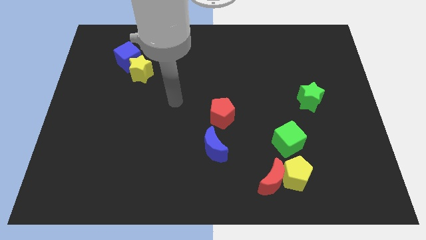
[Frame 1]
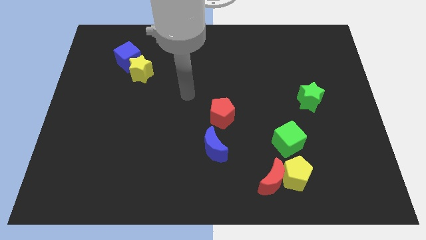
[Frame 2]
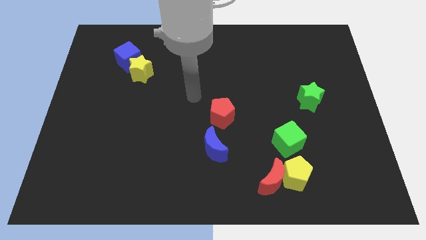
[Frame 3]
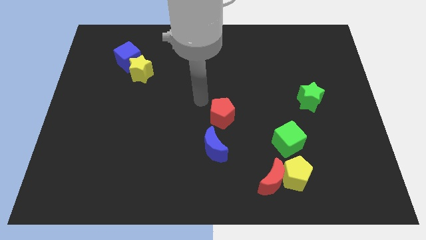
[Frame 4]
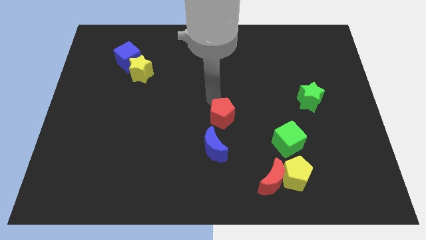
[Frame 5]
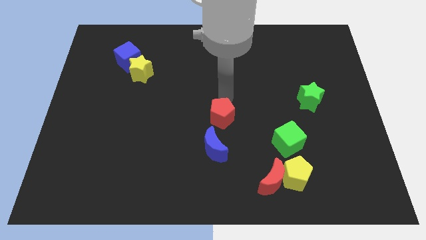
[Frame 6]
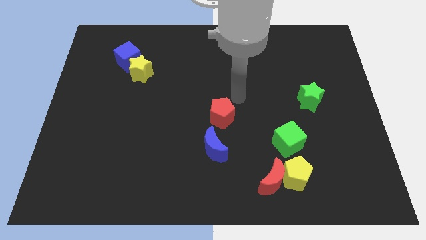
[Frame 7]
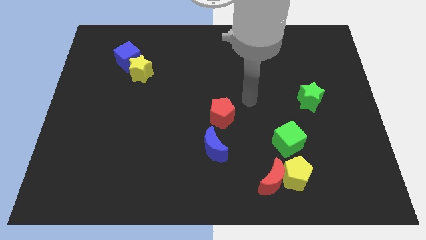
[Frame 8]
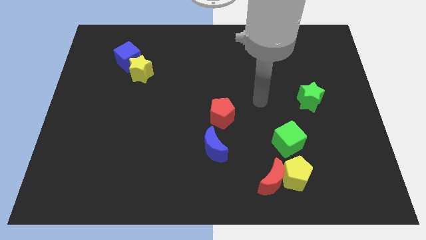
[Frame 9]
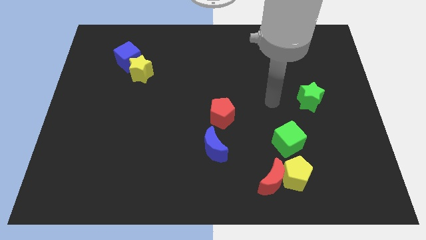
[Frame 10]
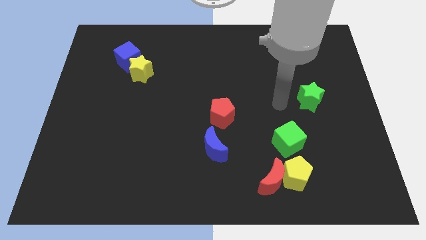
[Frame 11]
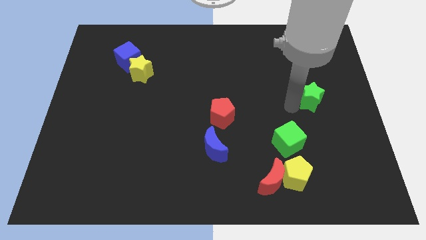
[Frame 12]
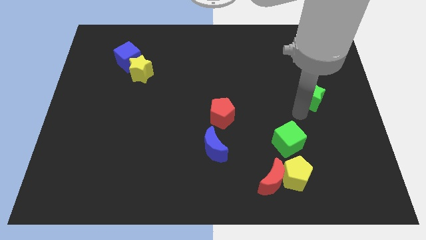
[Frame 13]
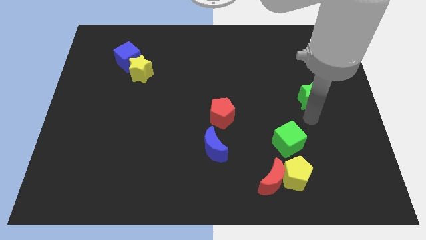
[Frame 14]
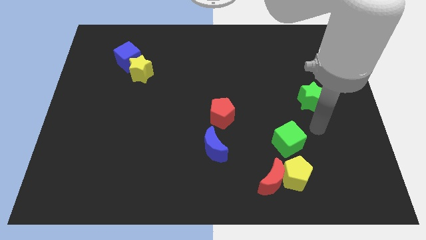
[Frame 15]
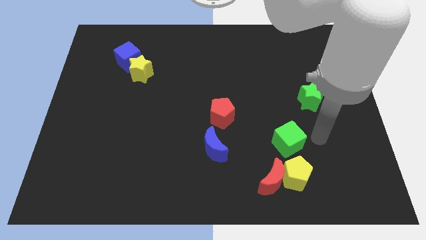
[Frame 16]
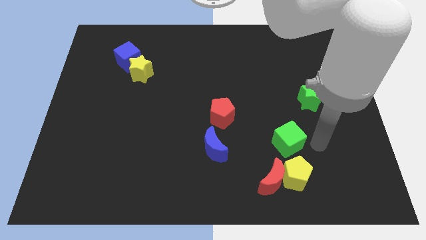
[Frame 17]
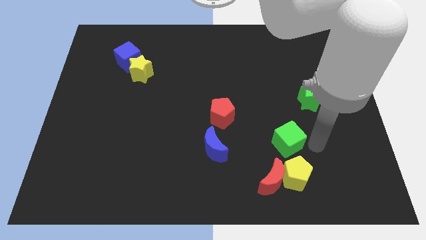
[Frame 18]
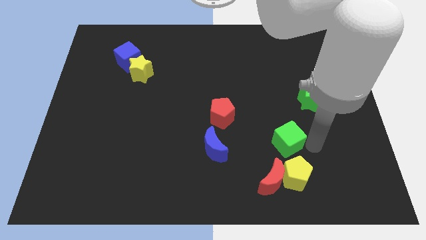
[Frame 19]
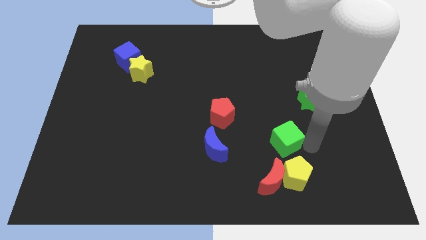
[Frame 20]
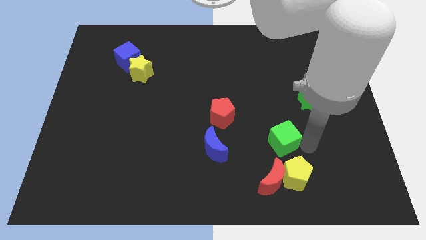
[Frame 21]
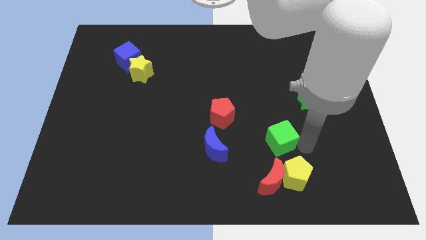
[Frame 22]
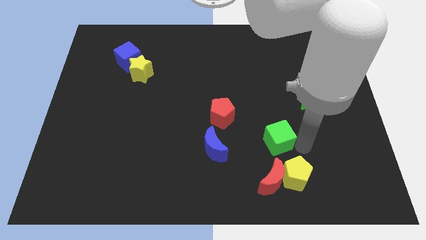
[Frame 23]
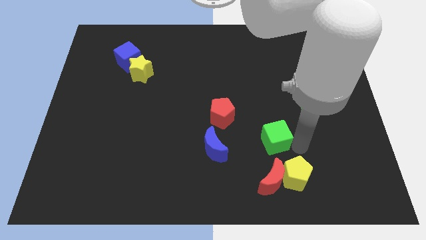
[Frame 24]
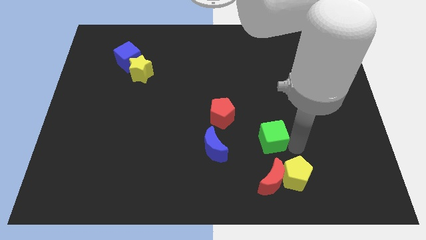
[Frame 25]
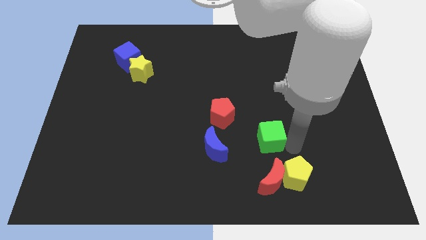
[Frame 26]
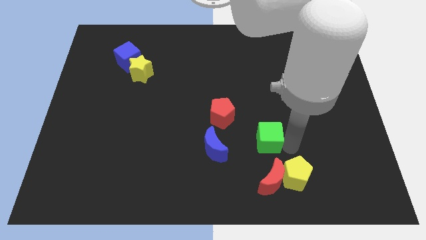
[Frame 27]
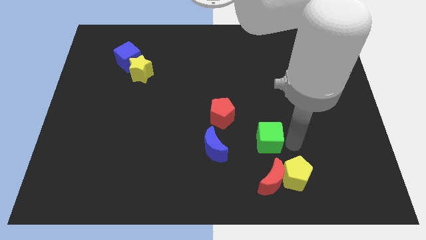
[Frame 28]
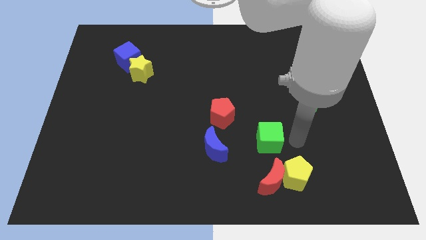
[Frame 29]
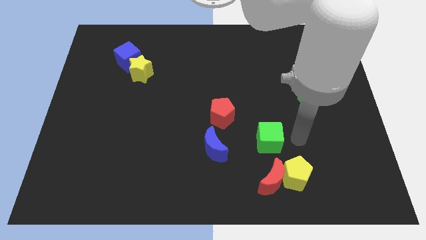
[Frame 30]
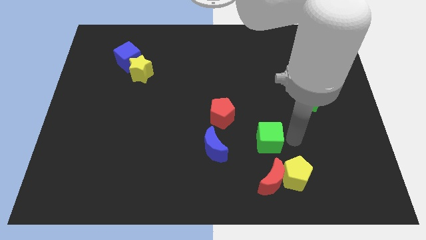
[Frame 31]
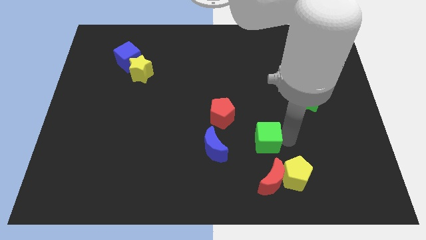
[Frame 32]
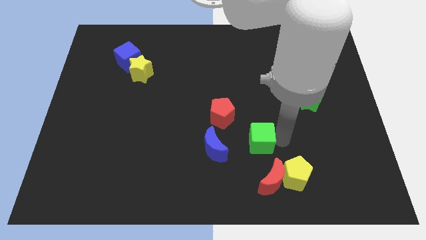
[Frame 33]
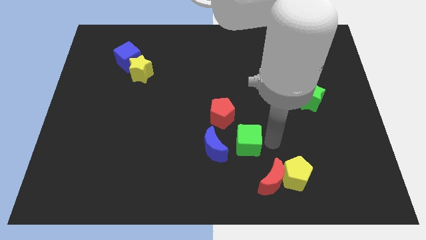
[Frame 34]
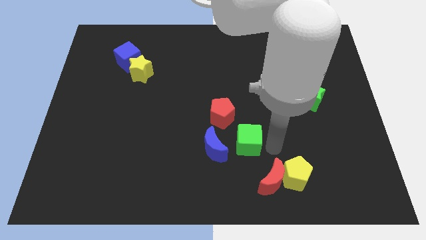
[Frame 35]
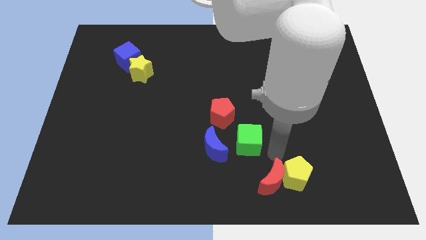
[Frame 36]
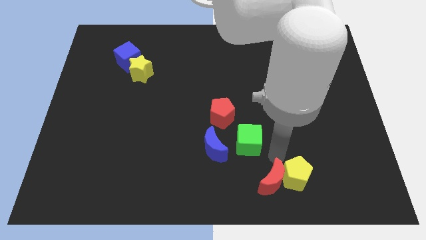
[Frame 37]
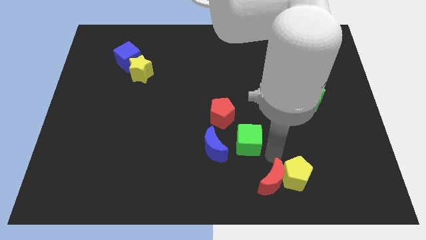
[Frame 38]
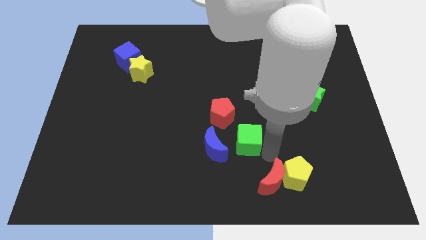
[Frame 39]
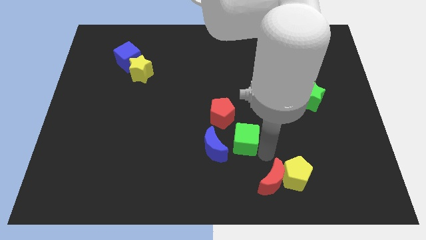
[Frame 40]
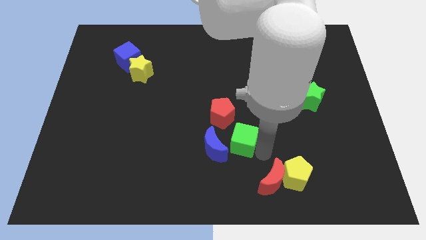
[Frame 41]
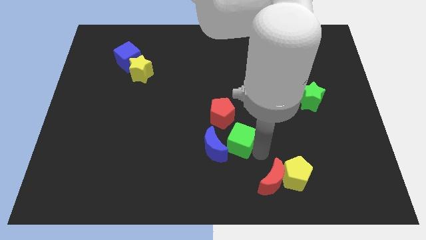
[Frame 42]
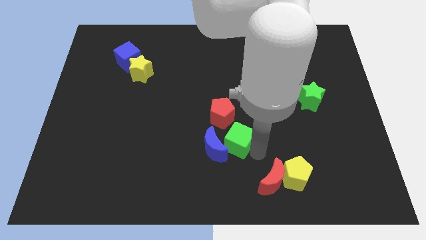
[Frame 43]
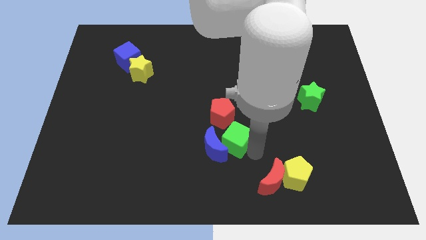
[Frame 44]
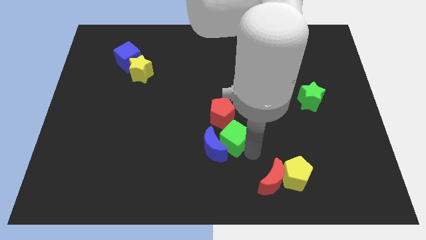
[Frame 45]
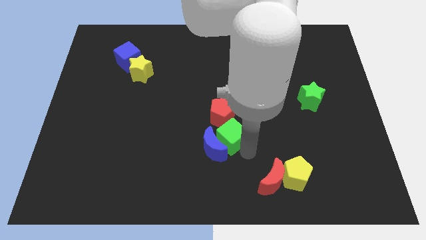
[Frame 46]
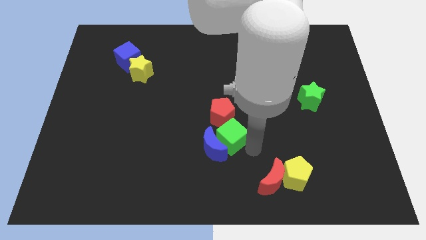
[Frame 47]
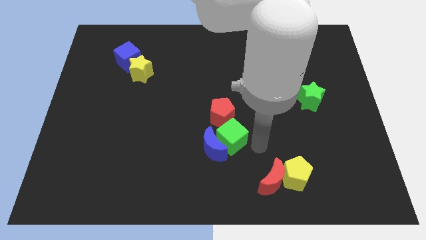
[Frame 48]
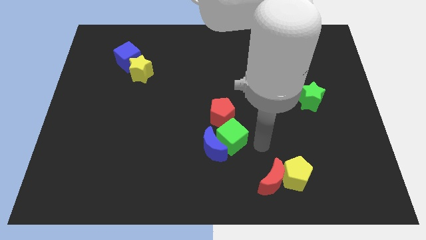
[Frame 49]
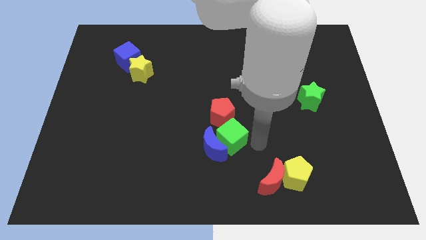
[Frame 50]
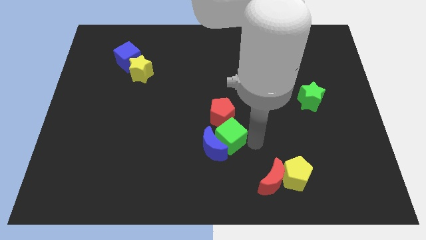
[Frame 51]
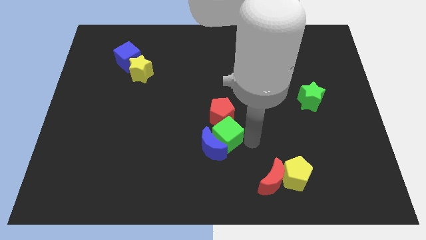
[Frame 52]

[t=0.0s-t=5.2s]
push the green cube diagonally down and to the left of the red pentagon

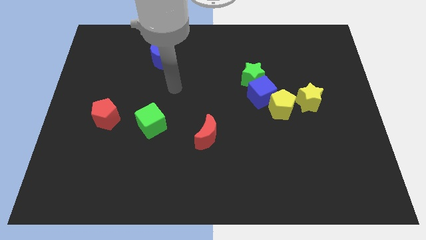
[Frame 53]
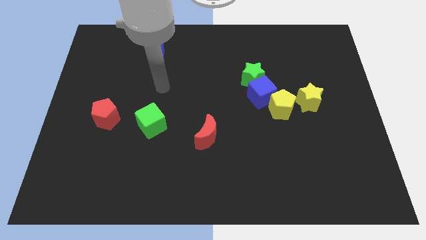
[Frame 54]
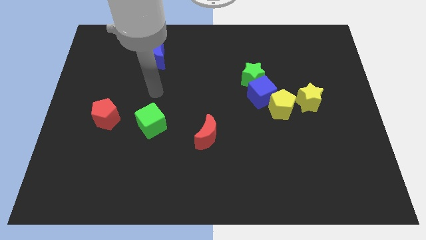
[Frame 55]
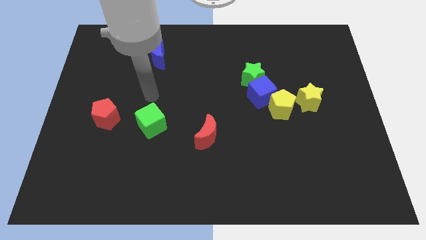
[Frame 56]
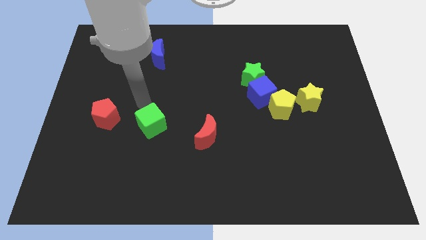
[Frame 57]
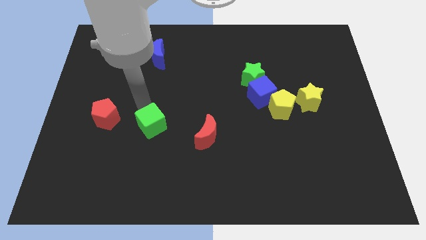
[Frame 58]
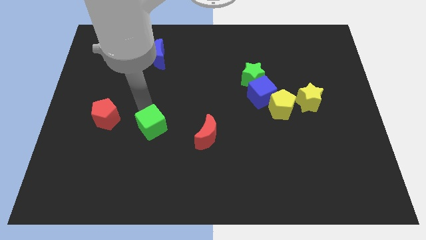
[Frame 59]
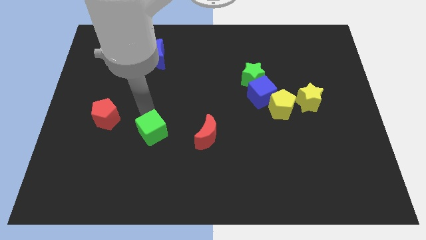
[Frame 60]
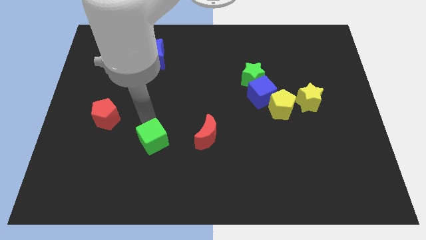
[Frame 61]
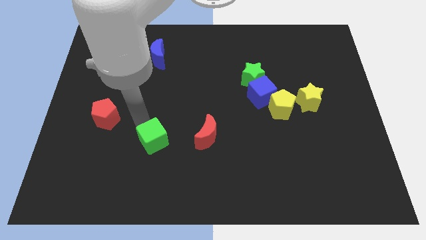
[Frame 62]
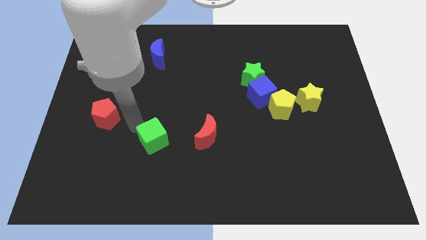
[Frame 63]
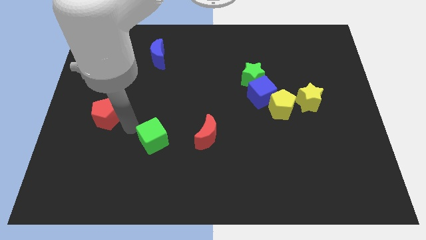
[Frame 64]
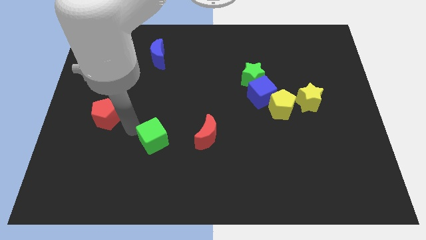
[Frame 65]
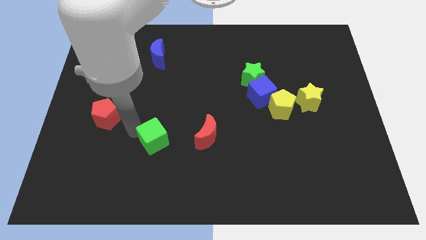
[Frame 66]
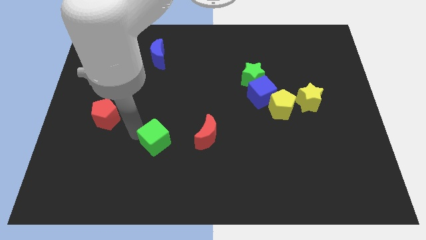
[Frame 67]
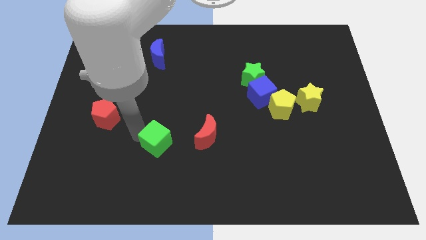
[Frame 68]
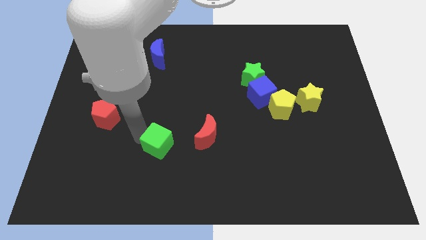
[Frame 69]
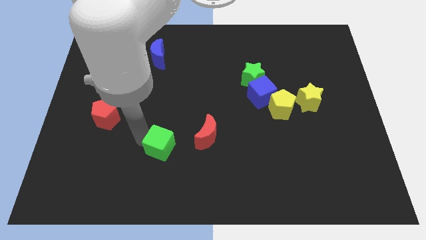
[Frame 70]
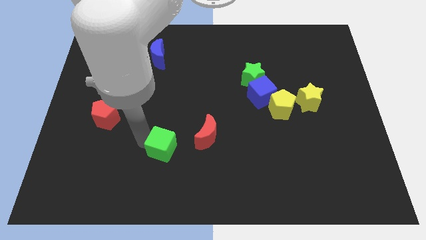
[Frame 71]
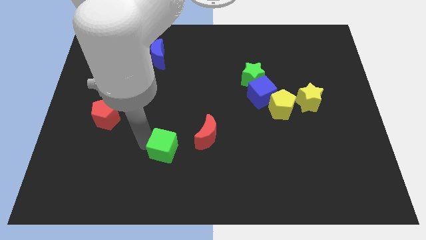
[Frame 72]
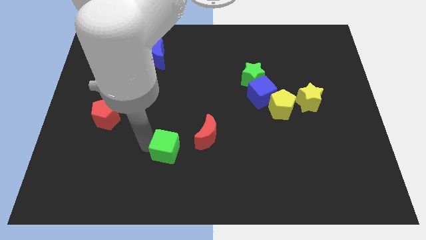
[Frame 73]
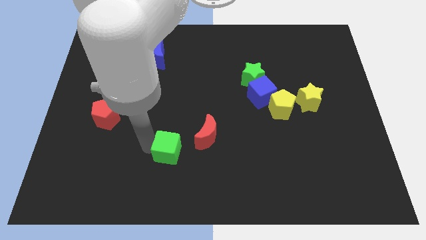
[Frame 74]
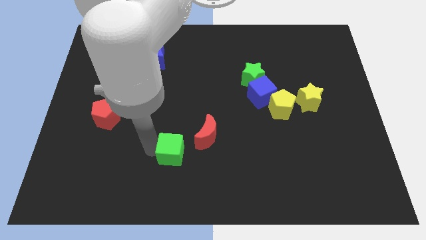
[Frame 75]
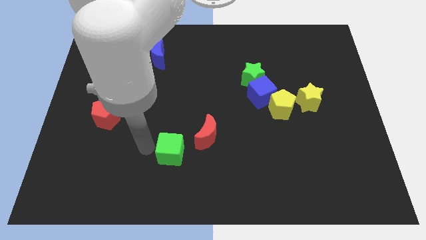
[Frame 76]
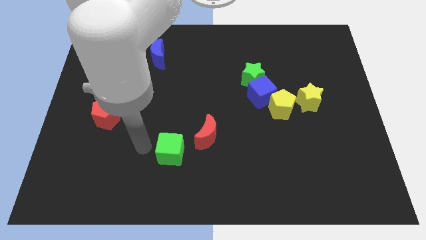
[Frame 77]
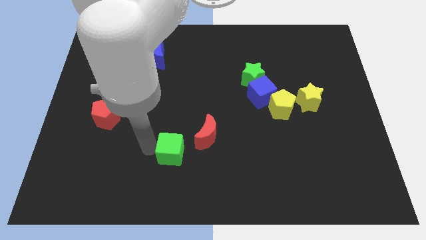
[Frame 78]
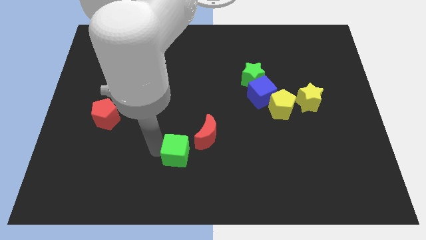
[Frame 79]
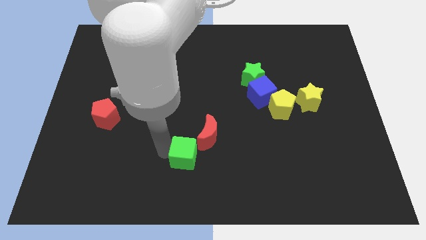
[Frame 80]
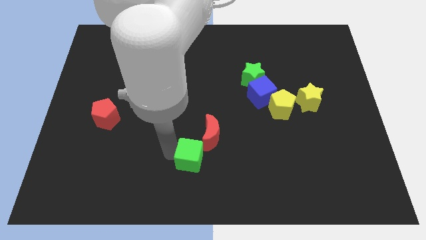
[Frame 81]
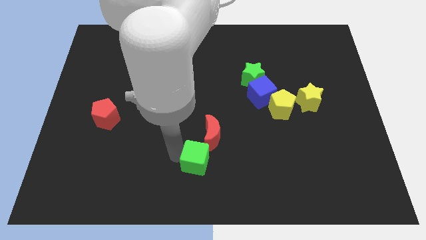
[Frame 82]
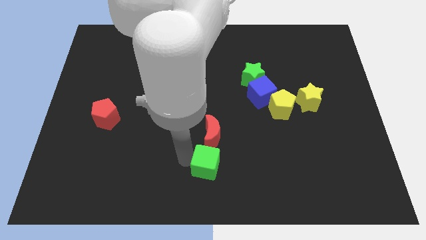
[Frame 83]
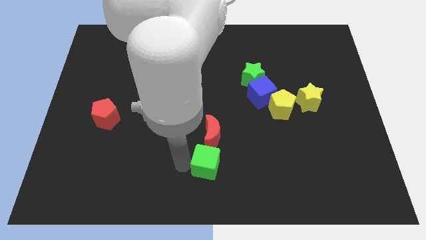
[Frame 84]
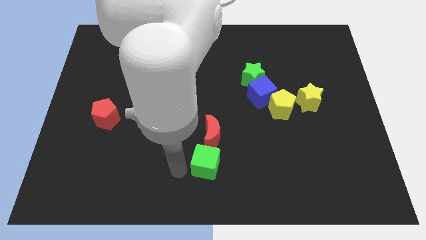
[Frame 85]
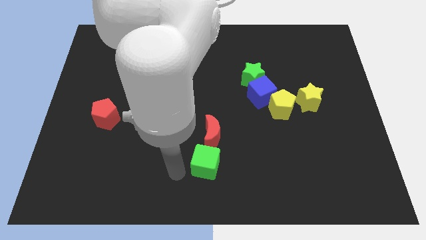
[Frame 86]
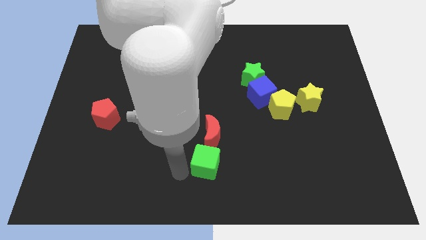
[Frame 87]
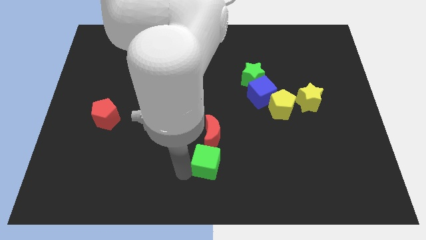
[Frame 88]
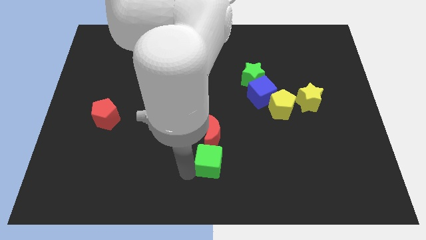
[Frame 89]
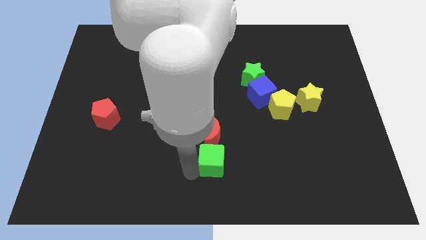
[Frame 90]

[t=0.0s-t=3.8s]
put the green cube diagonally down and to the right of the red moon
